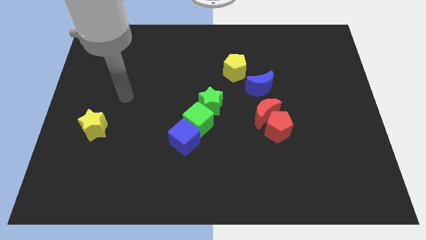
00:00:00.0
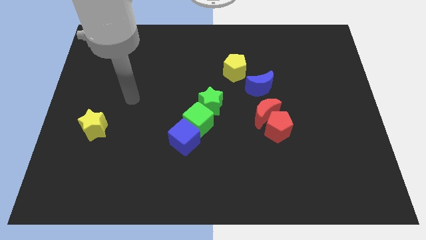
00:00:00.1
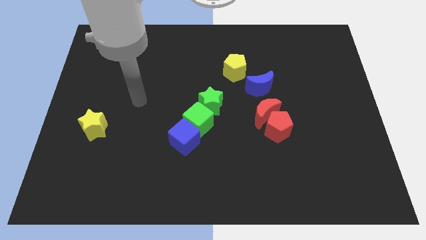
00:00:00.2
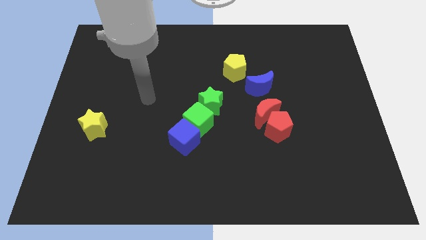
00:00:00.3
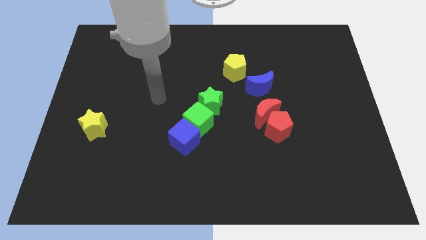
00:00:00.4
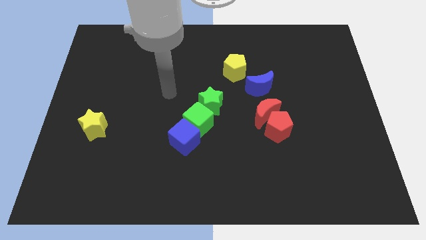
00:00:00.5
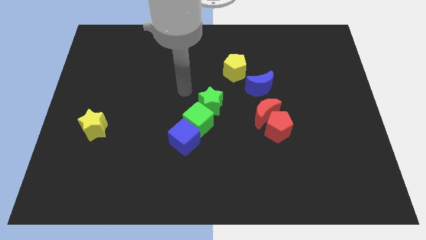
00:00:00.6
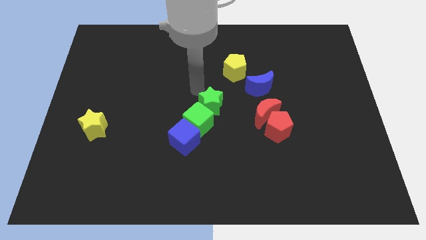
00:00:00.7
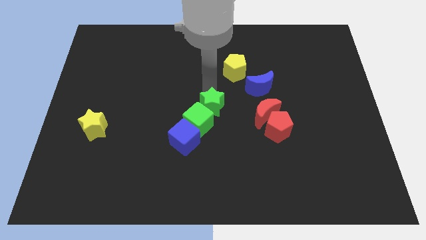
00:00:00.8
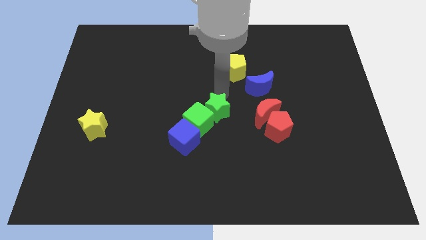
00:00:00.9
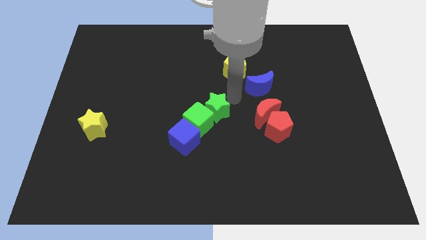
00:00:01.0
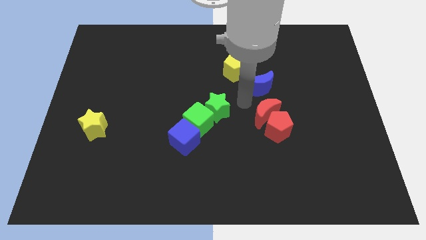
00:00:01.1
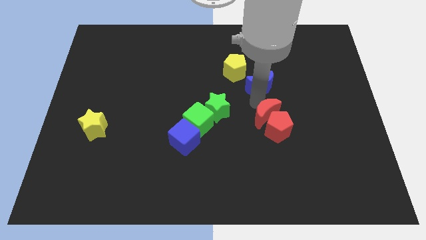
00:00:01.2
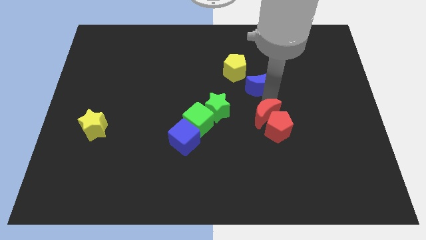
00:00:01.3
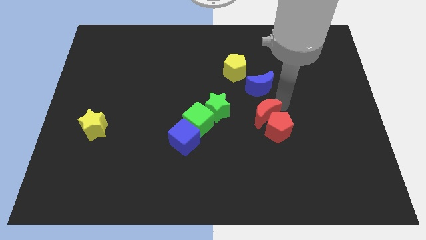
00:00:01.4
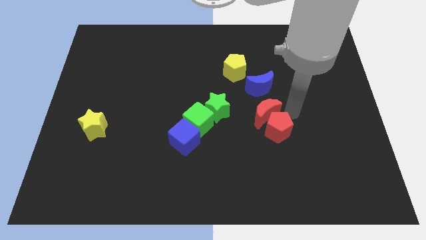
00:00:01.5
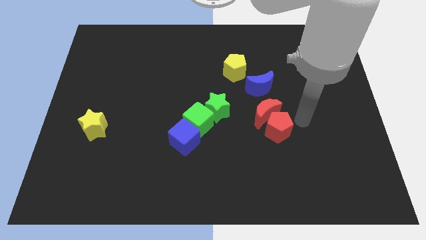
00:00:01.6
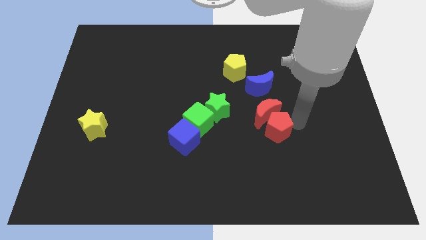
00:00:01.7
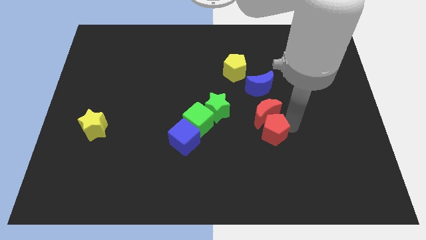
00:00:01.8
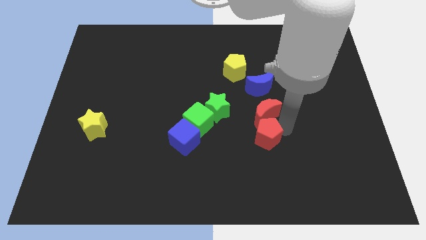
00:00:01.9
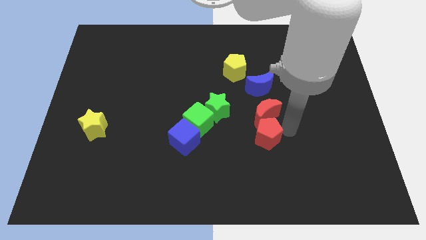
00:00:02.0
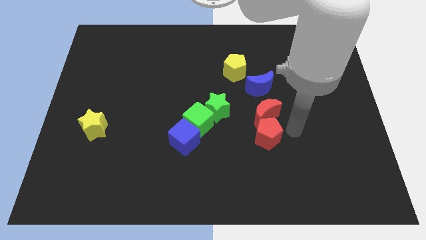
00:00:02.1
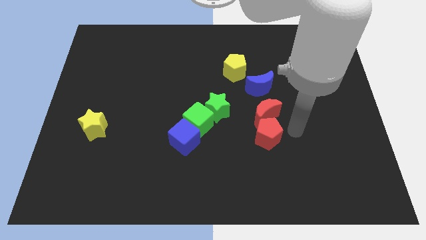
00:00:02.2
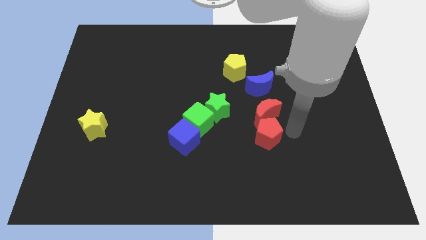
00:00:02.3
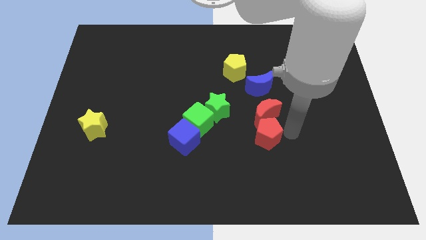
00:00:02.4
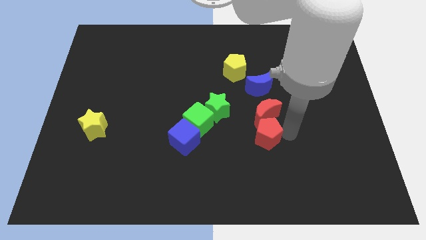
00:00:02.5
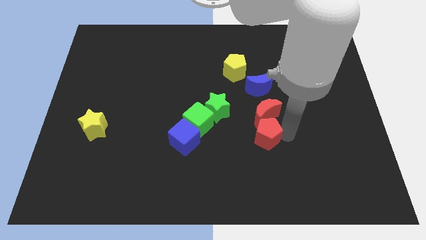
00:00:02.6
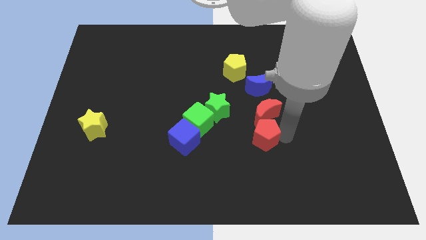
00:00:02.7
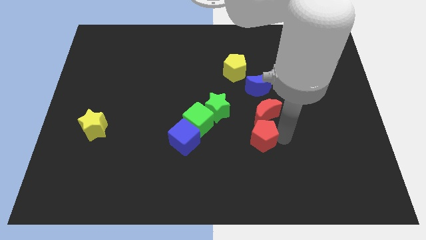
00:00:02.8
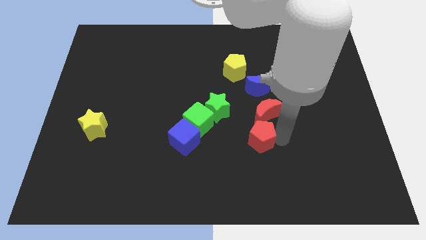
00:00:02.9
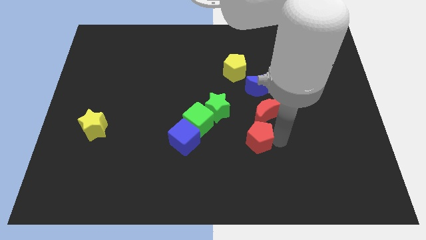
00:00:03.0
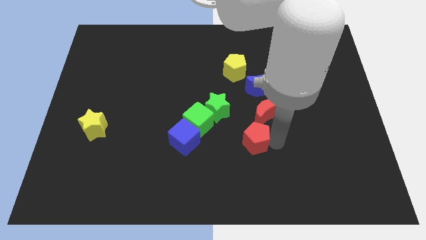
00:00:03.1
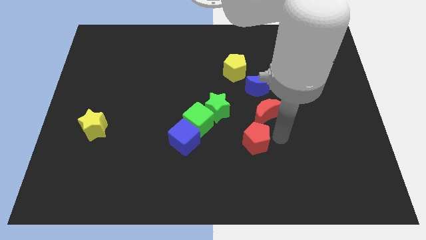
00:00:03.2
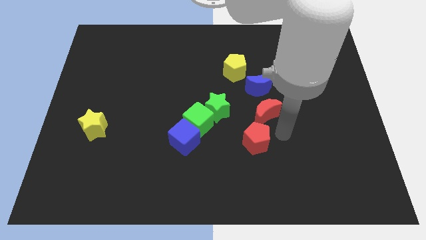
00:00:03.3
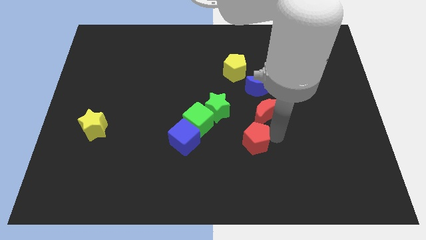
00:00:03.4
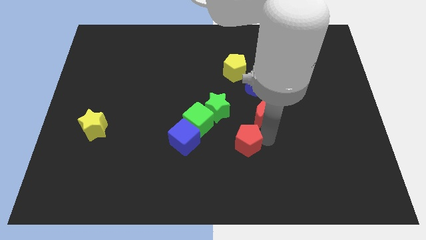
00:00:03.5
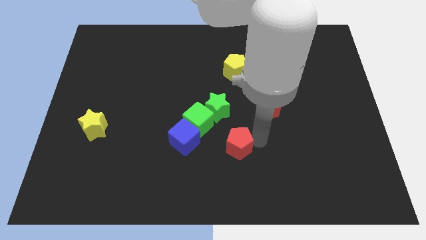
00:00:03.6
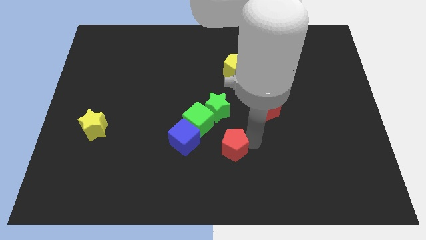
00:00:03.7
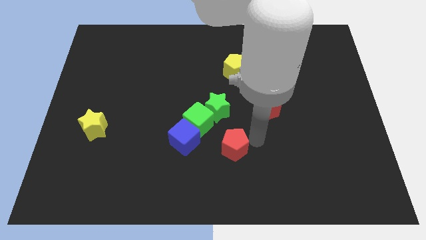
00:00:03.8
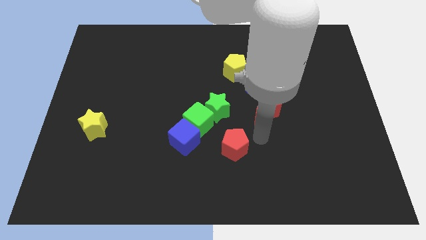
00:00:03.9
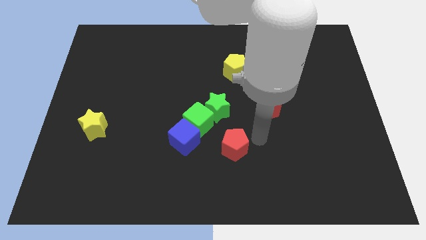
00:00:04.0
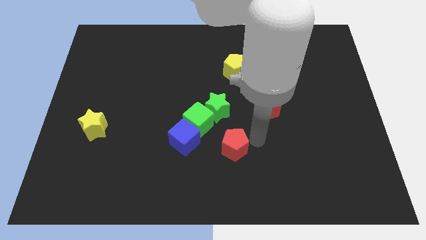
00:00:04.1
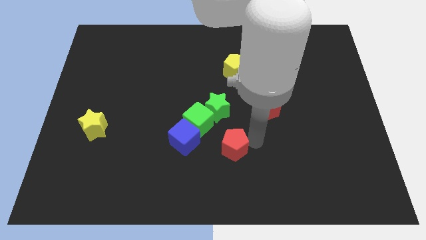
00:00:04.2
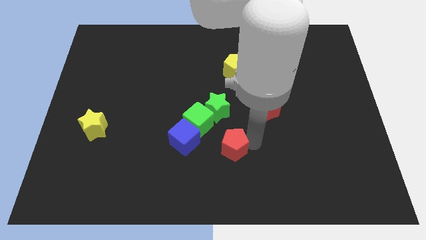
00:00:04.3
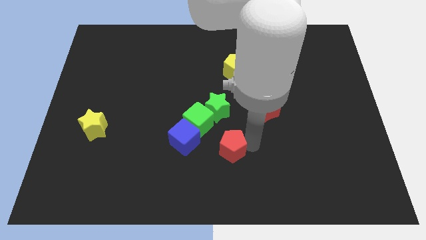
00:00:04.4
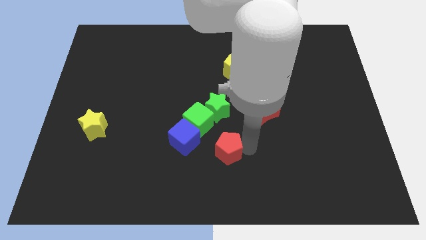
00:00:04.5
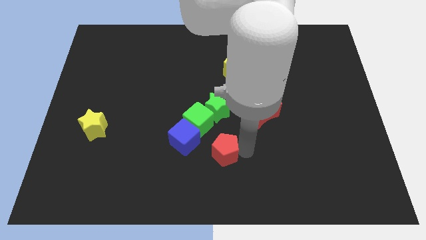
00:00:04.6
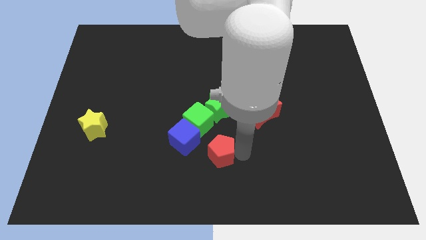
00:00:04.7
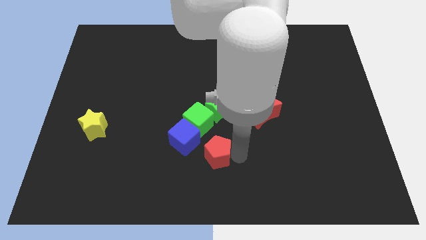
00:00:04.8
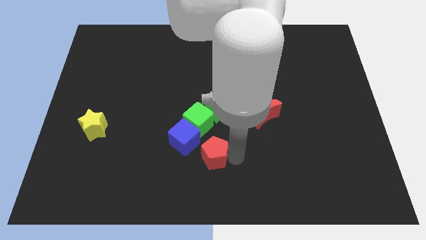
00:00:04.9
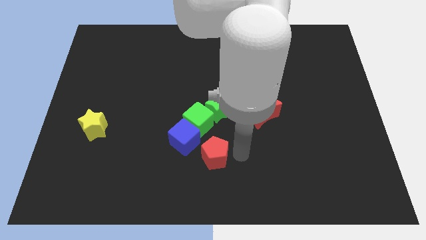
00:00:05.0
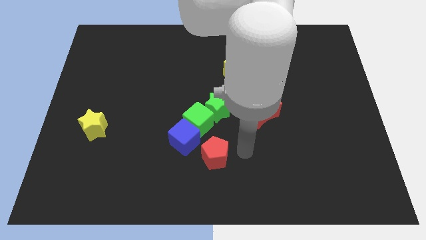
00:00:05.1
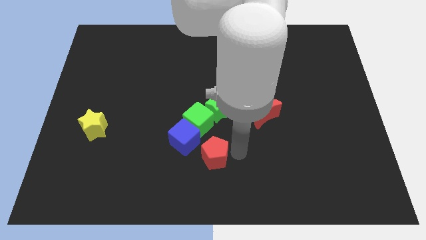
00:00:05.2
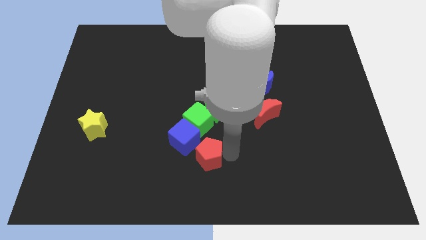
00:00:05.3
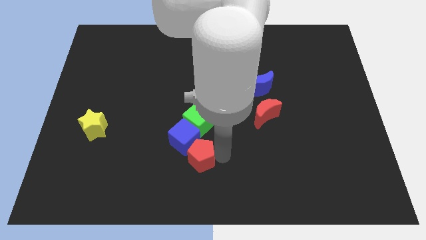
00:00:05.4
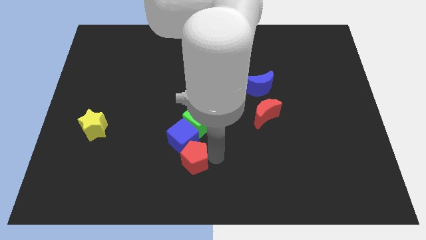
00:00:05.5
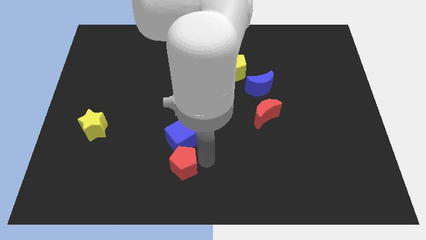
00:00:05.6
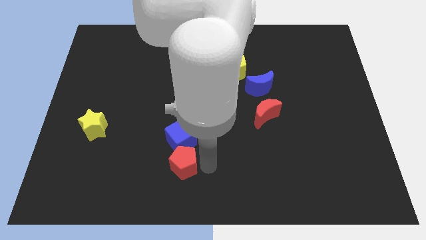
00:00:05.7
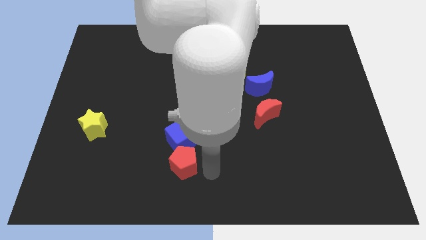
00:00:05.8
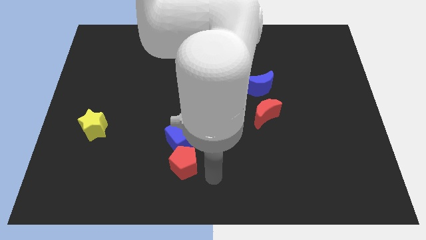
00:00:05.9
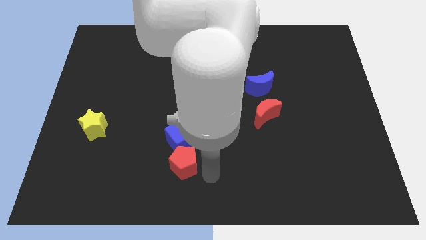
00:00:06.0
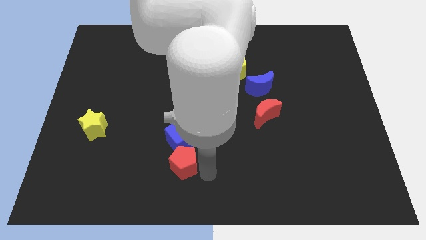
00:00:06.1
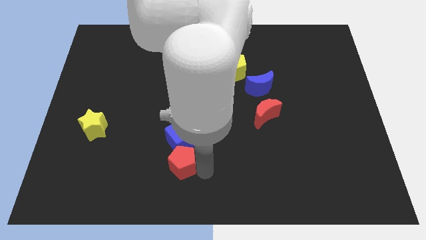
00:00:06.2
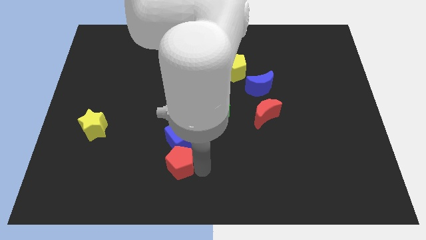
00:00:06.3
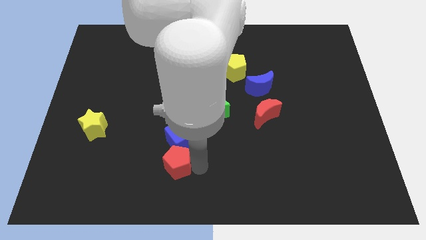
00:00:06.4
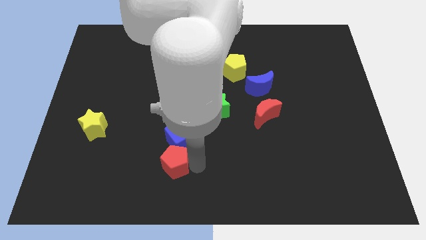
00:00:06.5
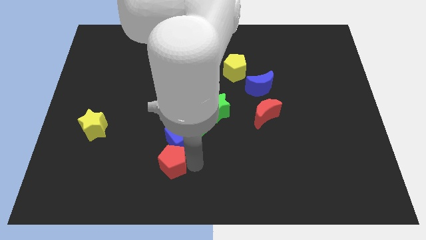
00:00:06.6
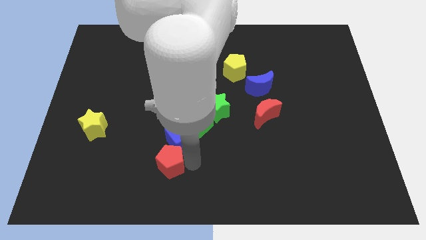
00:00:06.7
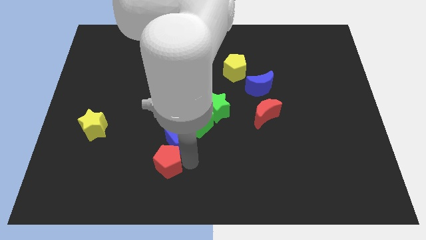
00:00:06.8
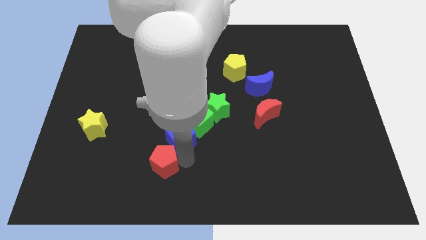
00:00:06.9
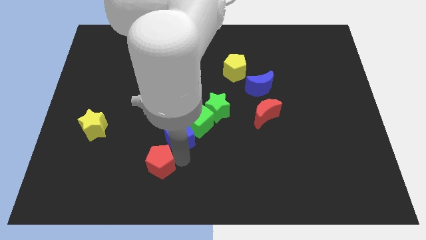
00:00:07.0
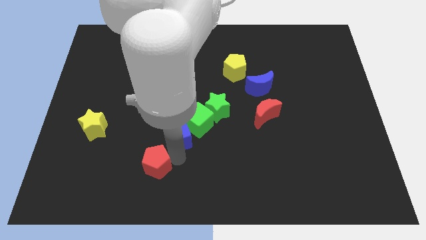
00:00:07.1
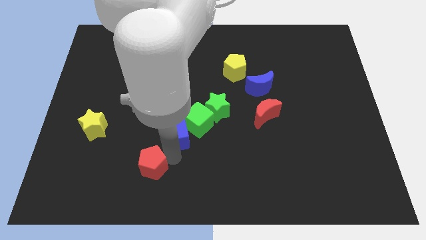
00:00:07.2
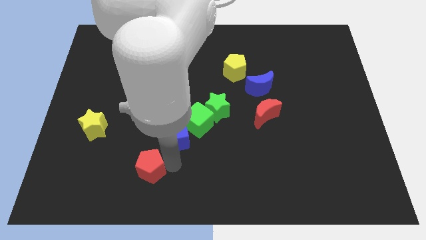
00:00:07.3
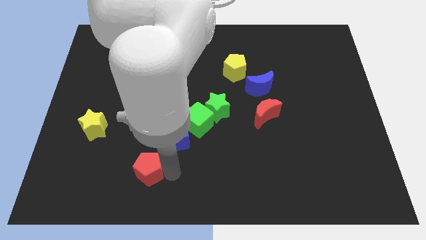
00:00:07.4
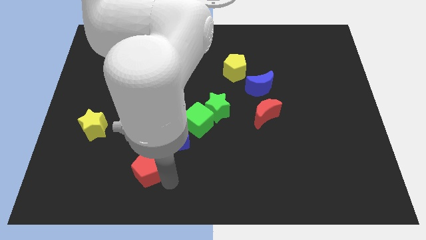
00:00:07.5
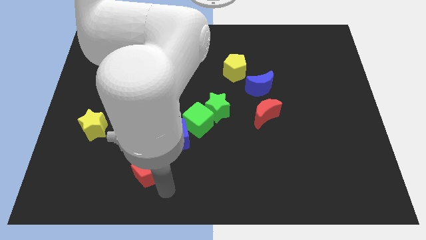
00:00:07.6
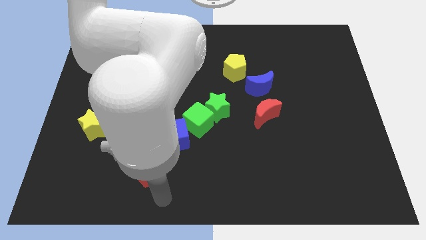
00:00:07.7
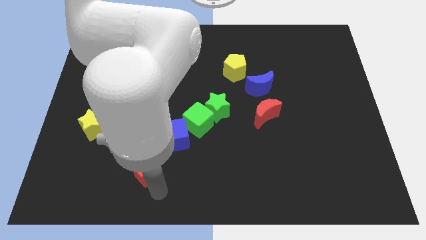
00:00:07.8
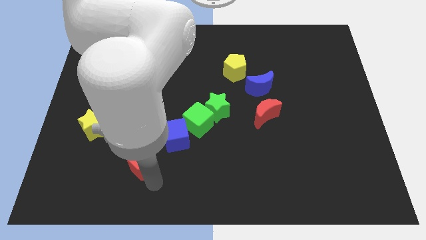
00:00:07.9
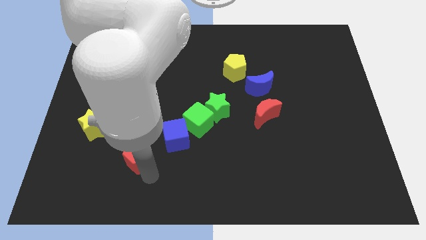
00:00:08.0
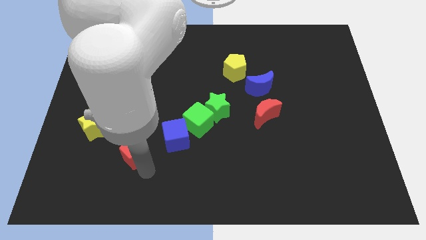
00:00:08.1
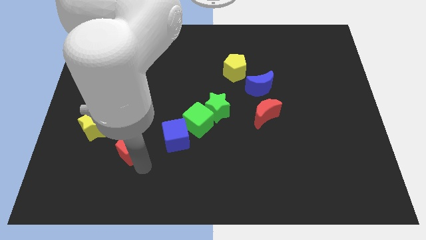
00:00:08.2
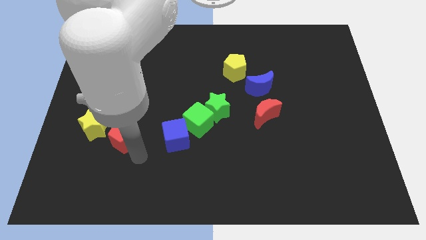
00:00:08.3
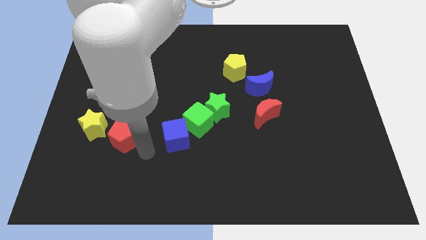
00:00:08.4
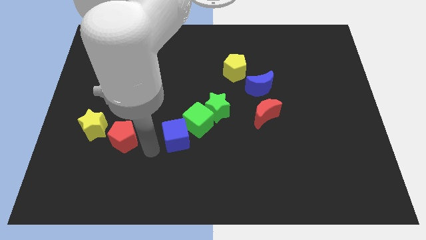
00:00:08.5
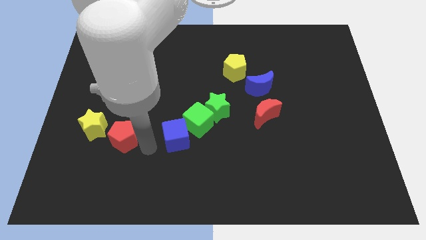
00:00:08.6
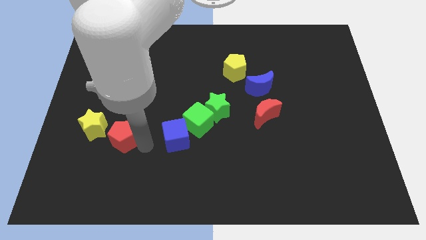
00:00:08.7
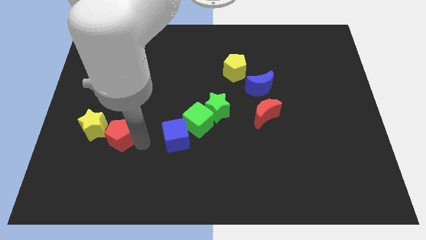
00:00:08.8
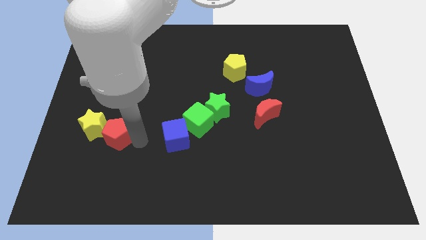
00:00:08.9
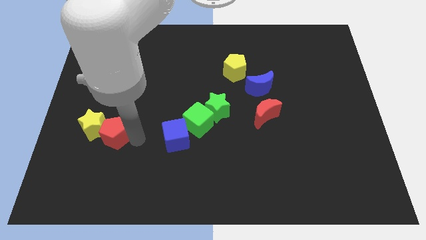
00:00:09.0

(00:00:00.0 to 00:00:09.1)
push the red pentagon to the yellow star
